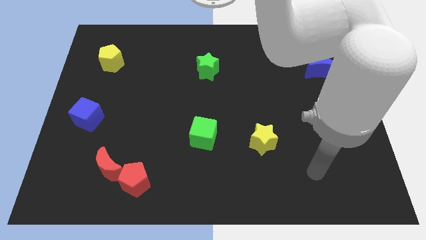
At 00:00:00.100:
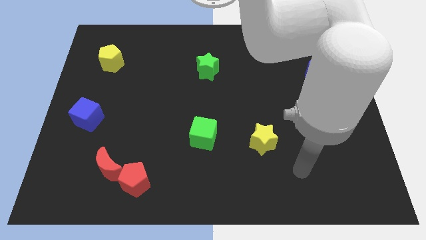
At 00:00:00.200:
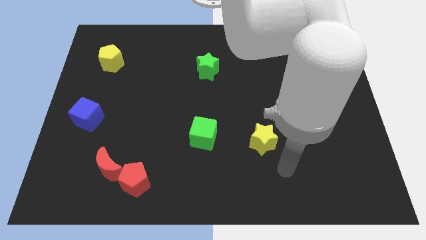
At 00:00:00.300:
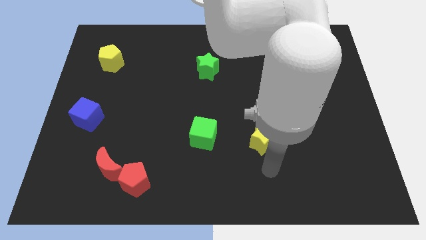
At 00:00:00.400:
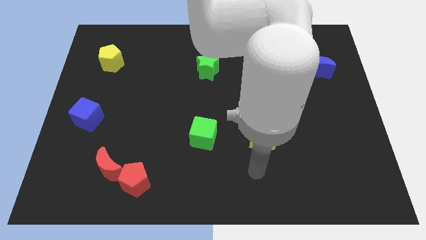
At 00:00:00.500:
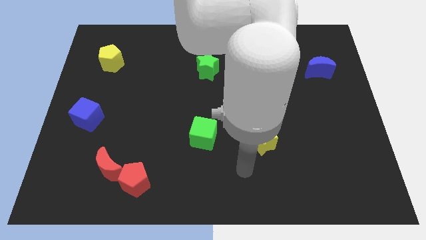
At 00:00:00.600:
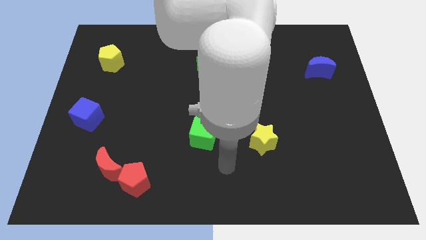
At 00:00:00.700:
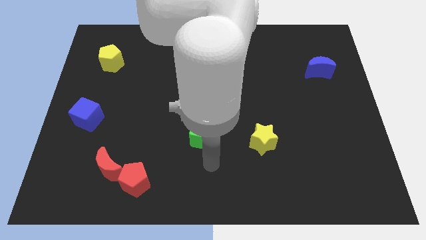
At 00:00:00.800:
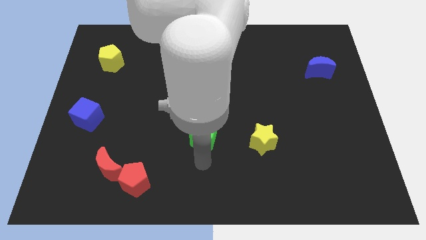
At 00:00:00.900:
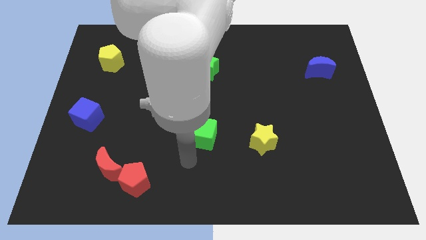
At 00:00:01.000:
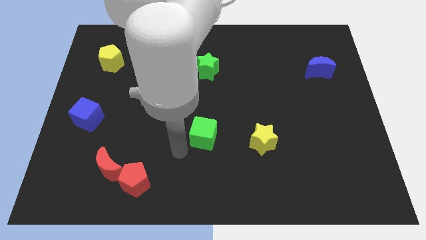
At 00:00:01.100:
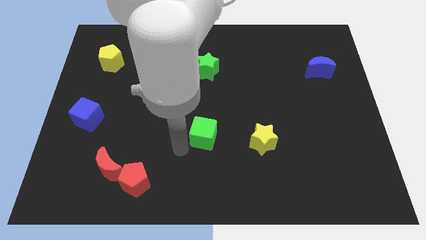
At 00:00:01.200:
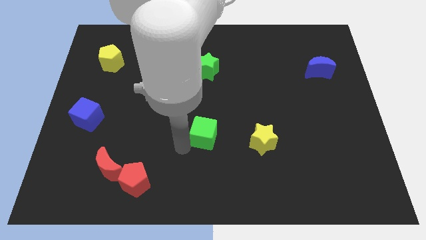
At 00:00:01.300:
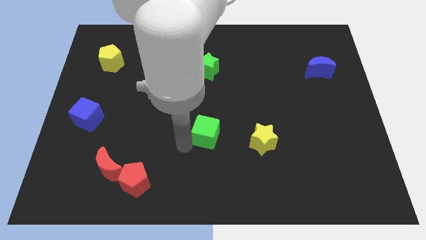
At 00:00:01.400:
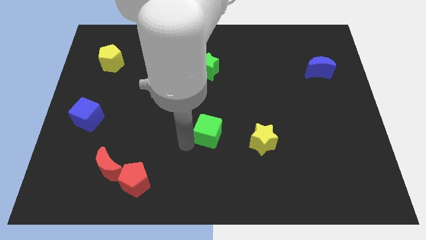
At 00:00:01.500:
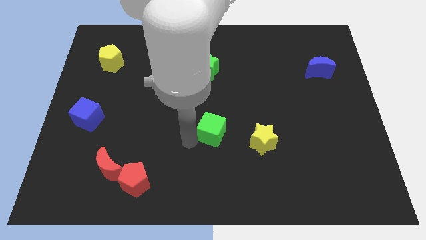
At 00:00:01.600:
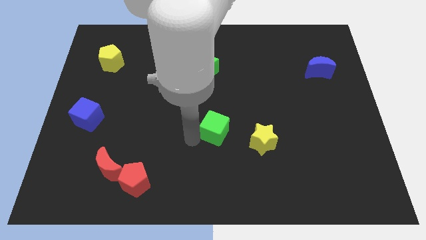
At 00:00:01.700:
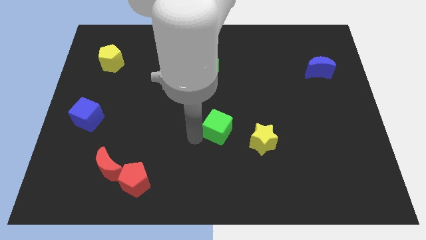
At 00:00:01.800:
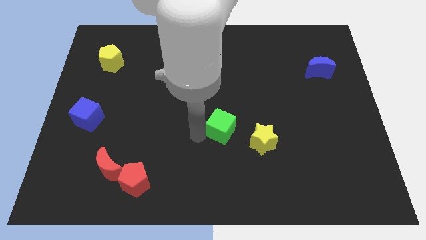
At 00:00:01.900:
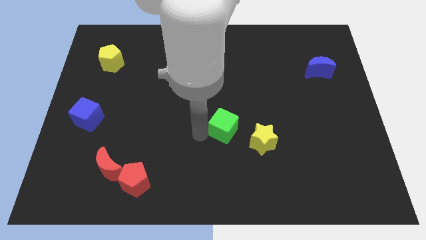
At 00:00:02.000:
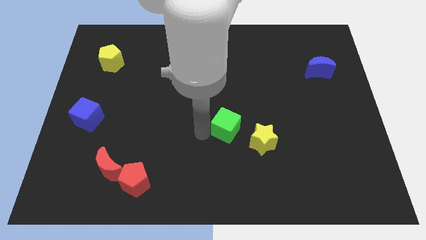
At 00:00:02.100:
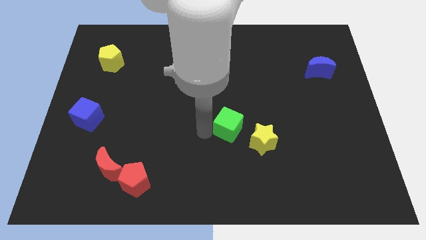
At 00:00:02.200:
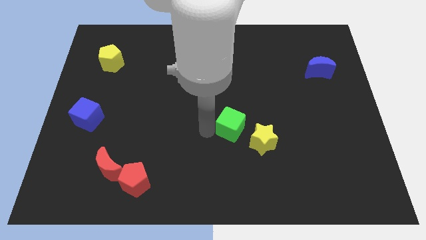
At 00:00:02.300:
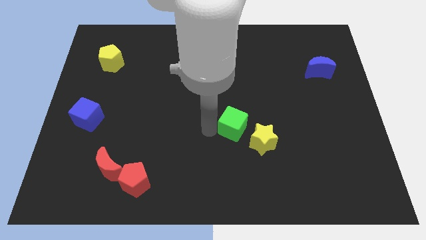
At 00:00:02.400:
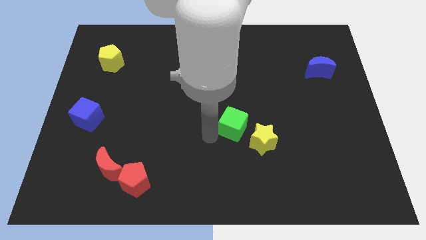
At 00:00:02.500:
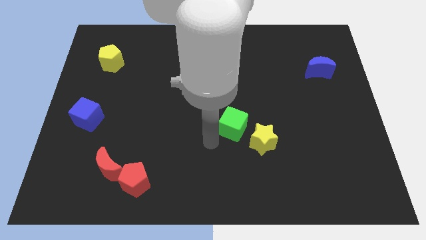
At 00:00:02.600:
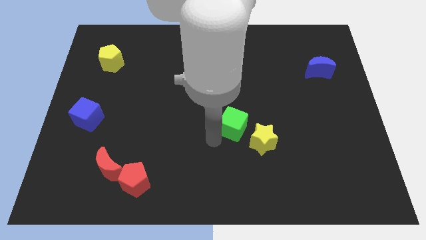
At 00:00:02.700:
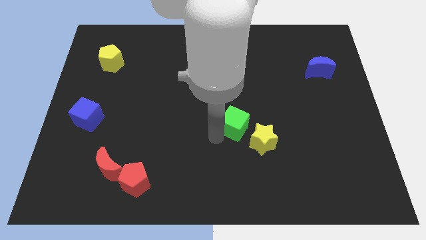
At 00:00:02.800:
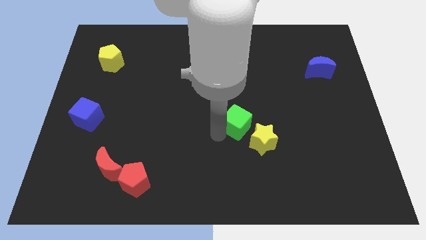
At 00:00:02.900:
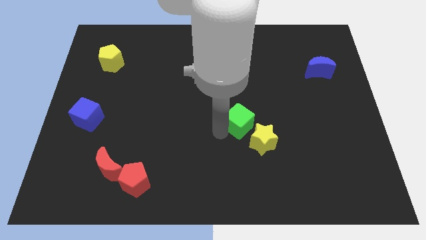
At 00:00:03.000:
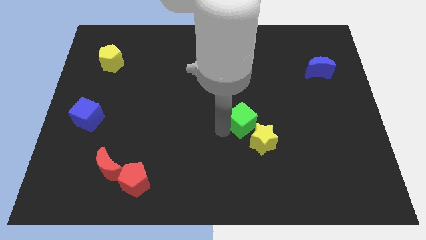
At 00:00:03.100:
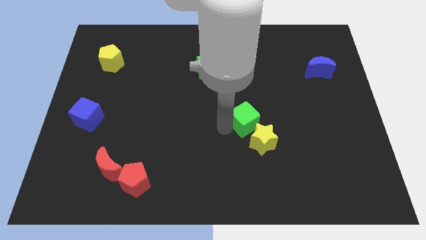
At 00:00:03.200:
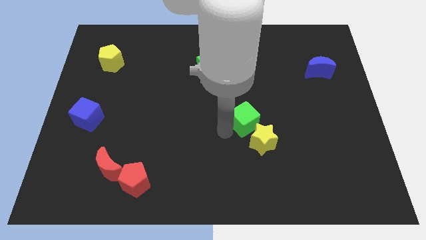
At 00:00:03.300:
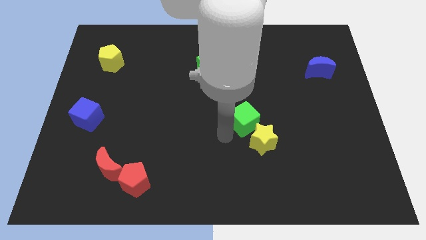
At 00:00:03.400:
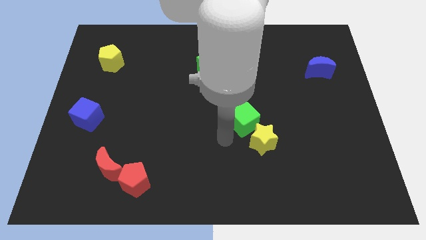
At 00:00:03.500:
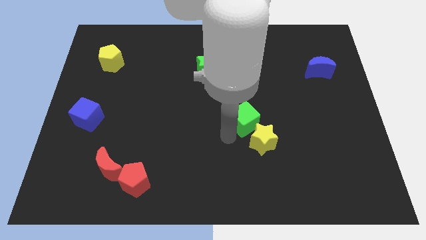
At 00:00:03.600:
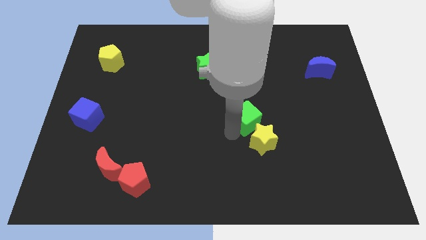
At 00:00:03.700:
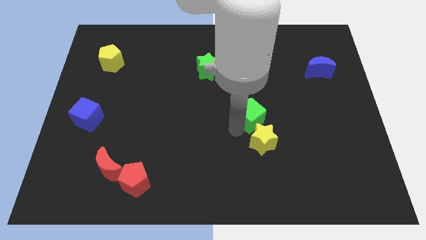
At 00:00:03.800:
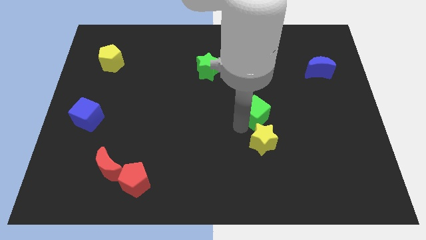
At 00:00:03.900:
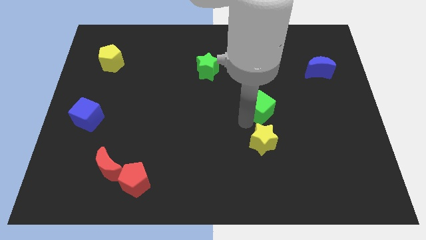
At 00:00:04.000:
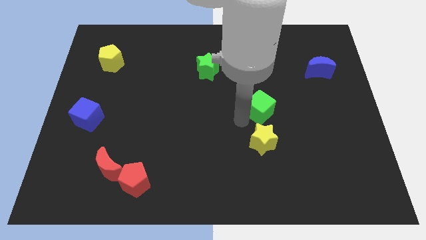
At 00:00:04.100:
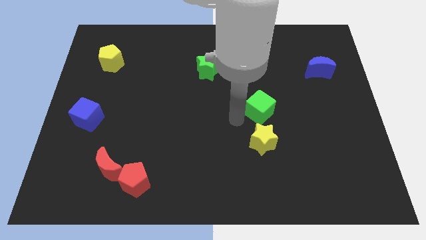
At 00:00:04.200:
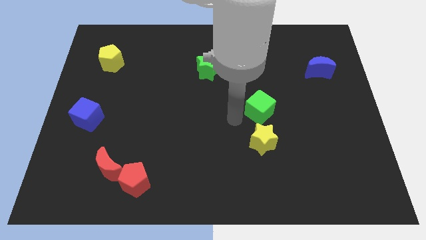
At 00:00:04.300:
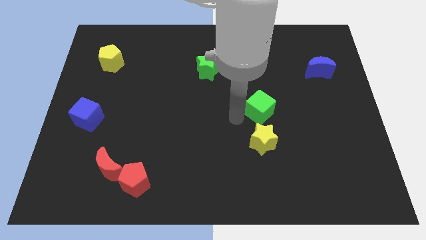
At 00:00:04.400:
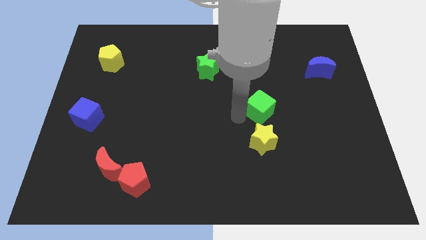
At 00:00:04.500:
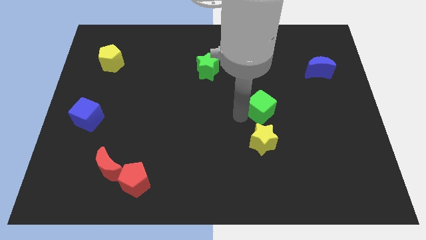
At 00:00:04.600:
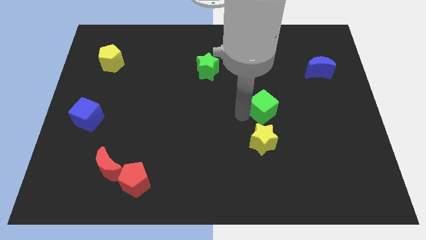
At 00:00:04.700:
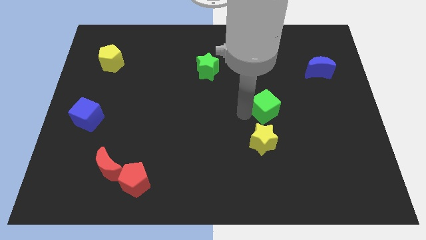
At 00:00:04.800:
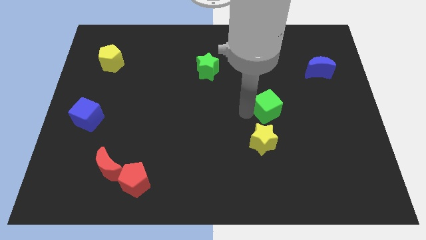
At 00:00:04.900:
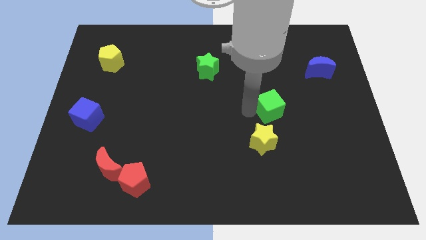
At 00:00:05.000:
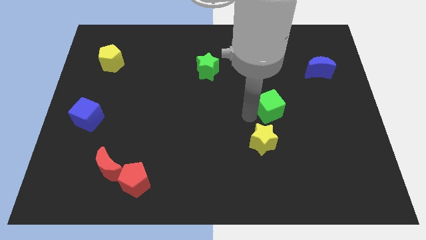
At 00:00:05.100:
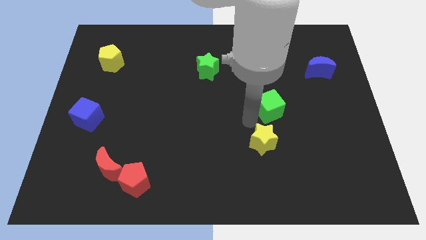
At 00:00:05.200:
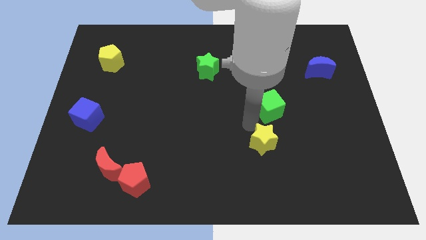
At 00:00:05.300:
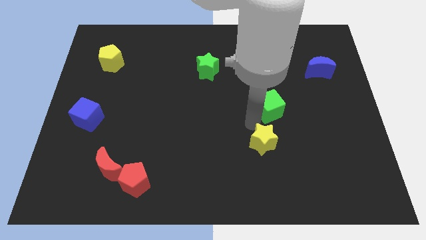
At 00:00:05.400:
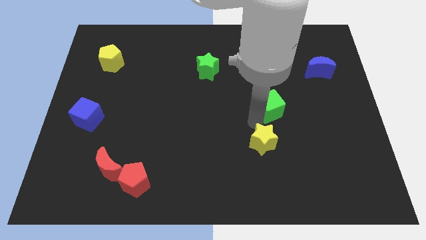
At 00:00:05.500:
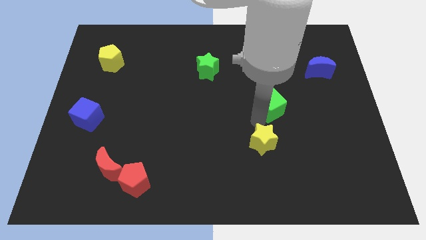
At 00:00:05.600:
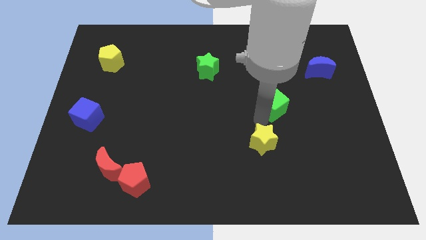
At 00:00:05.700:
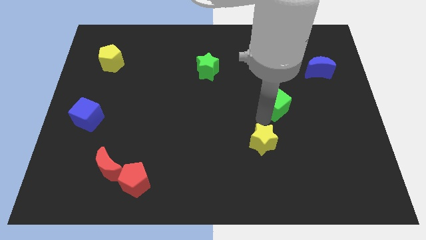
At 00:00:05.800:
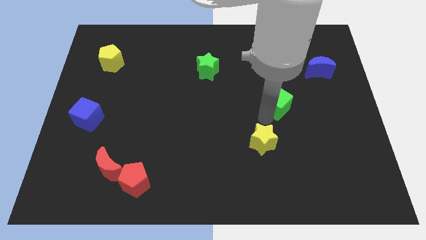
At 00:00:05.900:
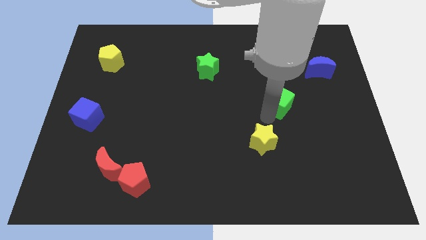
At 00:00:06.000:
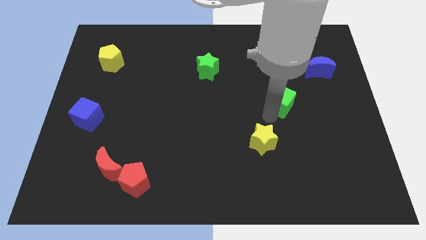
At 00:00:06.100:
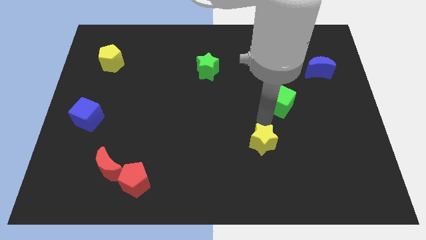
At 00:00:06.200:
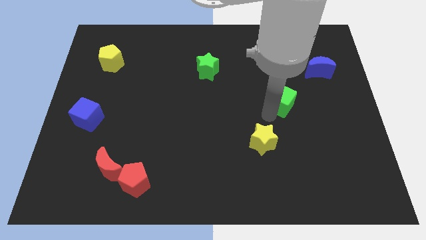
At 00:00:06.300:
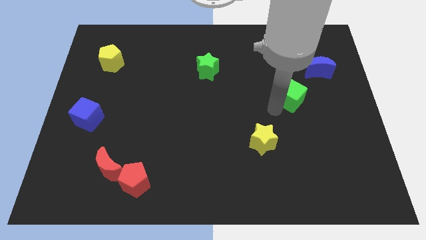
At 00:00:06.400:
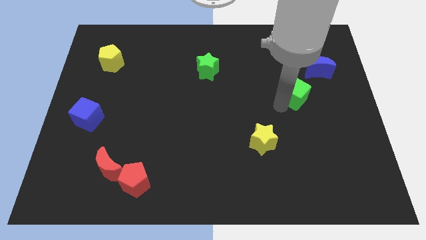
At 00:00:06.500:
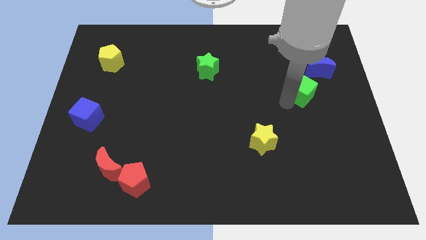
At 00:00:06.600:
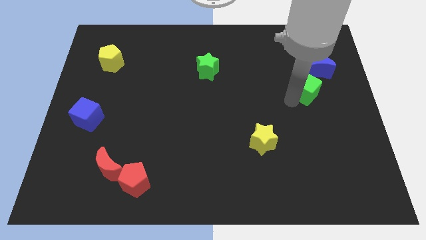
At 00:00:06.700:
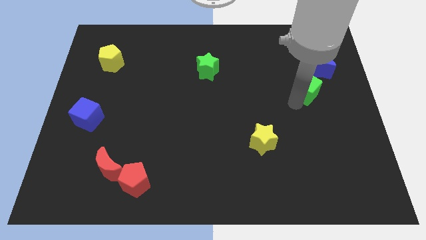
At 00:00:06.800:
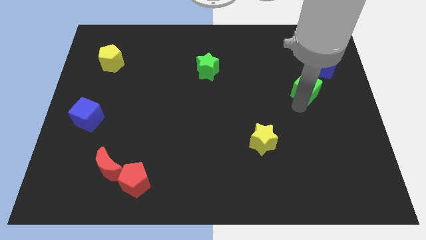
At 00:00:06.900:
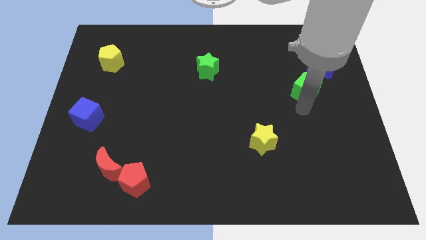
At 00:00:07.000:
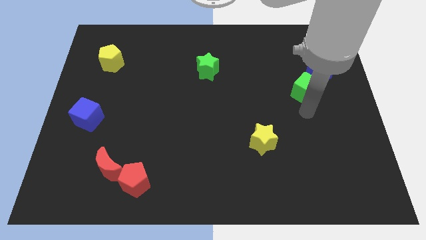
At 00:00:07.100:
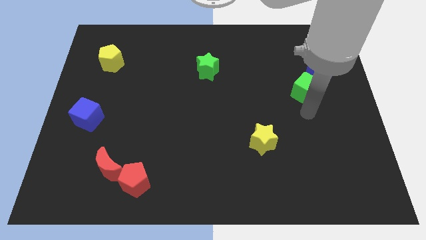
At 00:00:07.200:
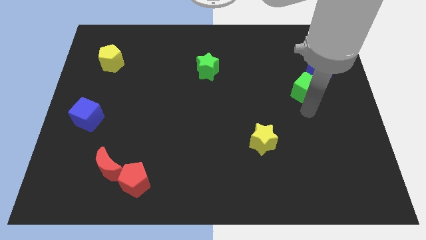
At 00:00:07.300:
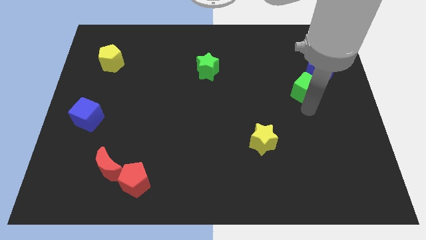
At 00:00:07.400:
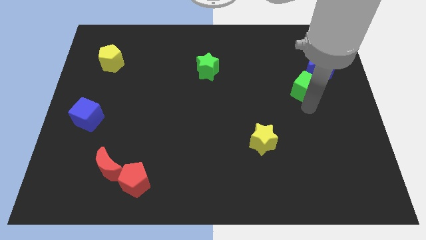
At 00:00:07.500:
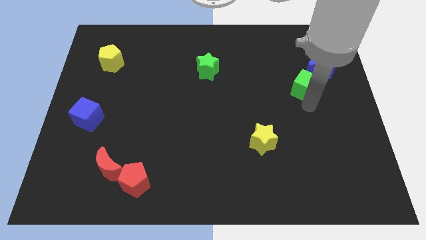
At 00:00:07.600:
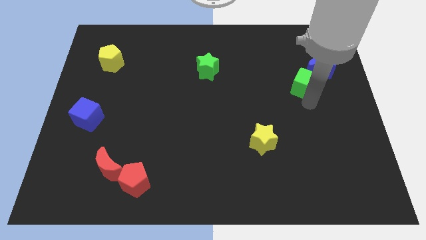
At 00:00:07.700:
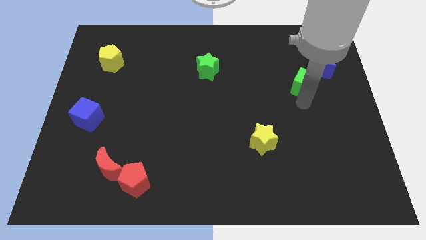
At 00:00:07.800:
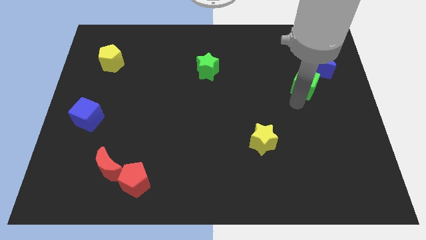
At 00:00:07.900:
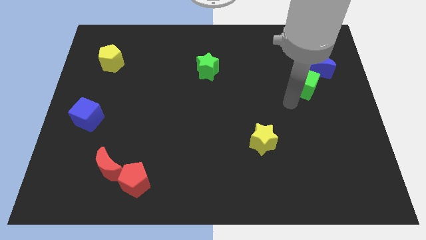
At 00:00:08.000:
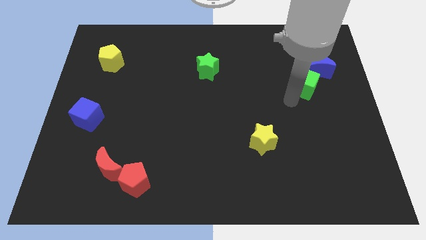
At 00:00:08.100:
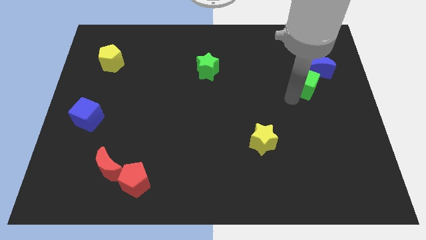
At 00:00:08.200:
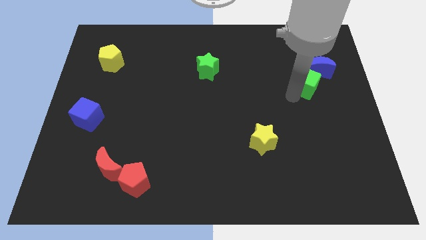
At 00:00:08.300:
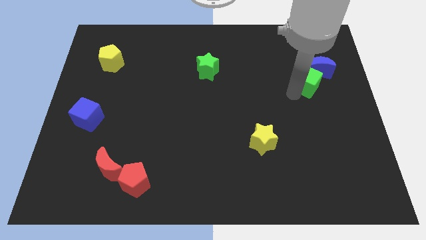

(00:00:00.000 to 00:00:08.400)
move the green cube towards the blue moon
